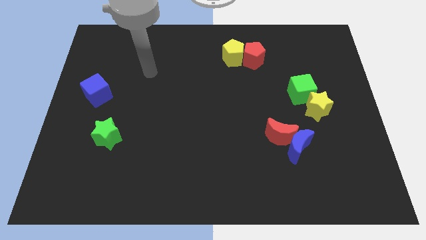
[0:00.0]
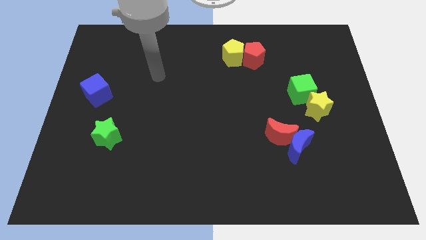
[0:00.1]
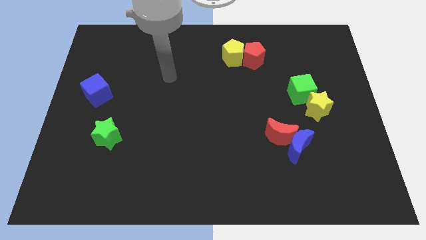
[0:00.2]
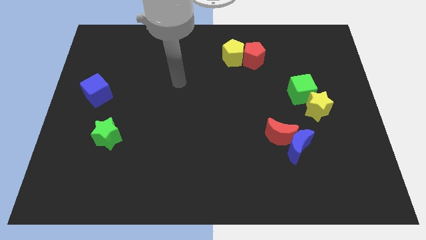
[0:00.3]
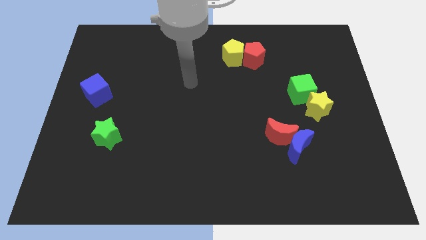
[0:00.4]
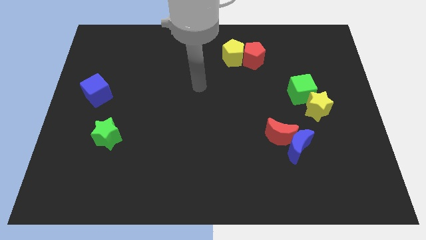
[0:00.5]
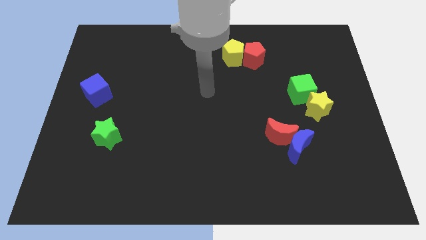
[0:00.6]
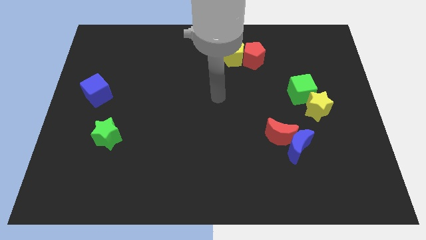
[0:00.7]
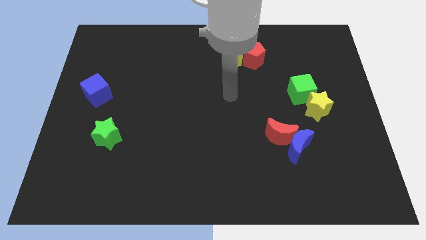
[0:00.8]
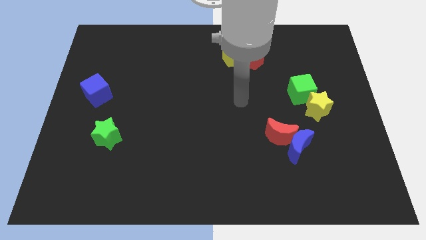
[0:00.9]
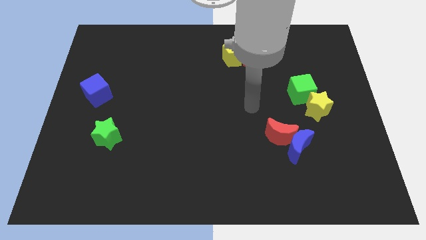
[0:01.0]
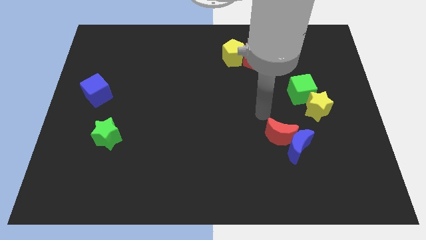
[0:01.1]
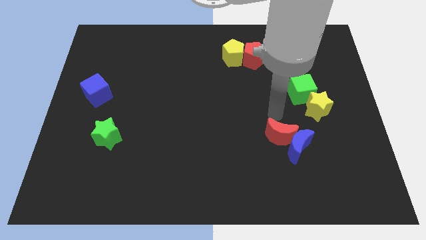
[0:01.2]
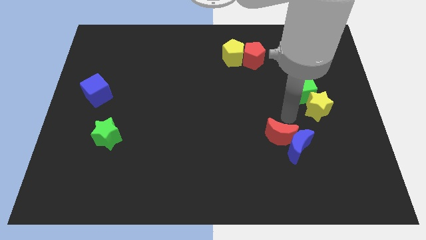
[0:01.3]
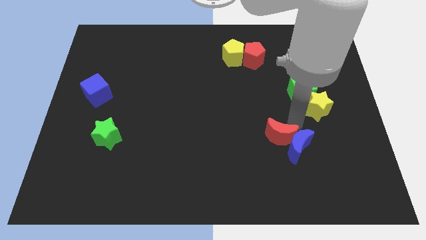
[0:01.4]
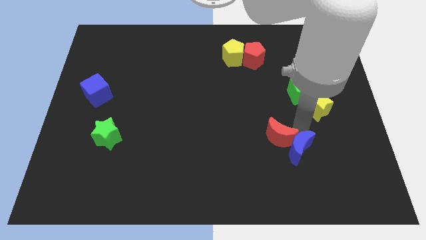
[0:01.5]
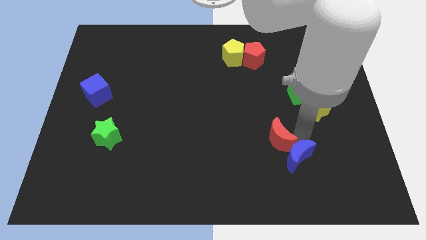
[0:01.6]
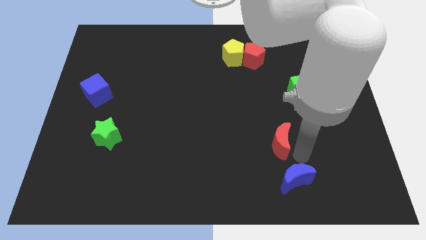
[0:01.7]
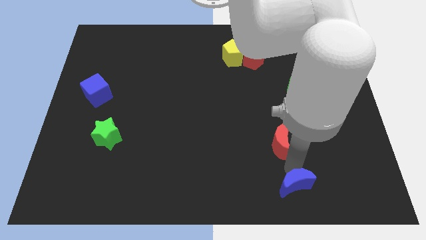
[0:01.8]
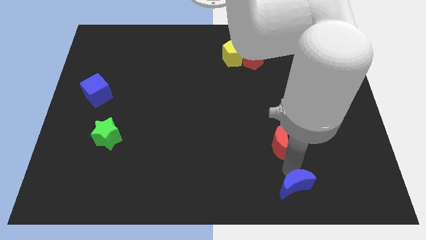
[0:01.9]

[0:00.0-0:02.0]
pull the red moon apart from the blue moon

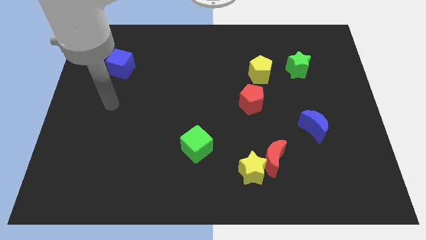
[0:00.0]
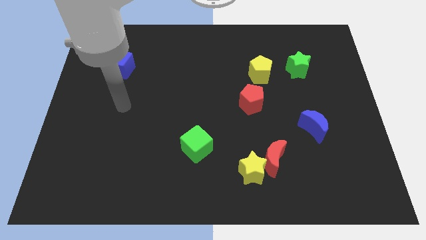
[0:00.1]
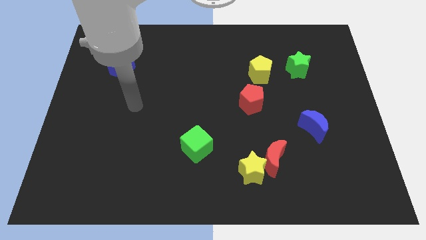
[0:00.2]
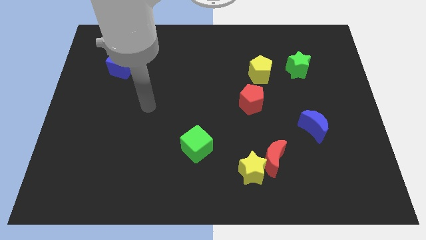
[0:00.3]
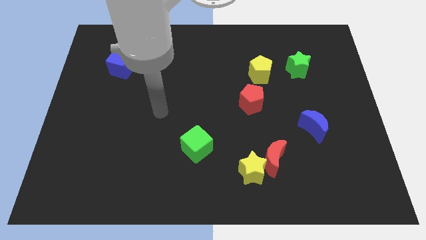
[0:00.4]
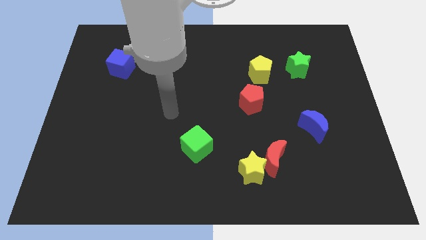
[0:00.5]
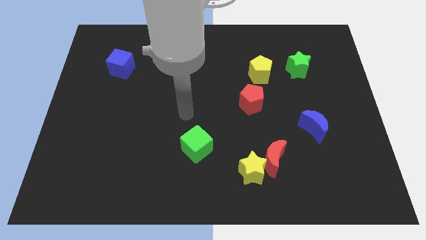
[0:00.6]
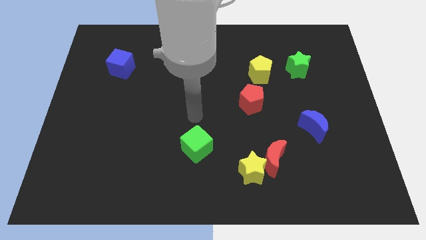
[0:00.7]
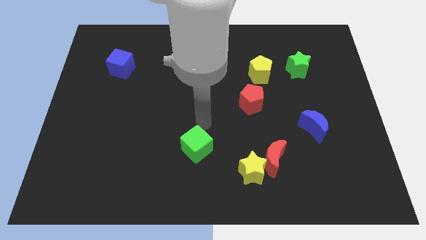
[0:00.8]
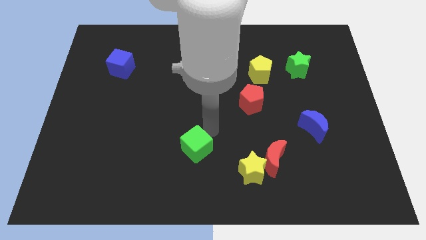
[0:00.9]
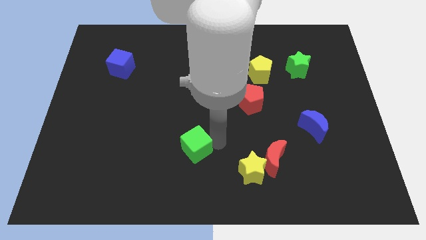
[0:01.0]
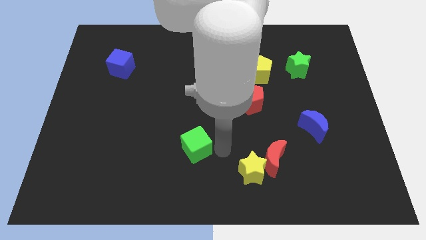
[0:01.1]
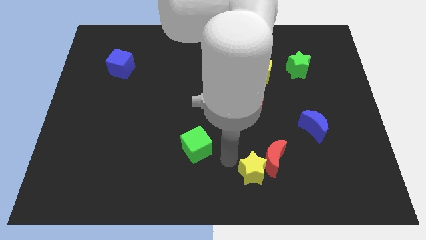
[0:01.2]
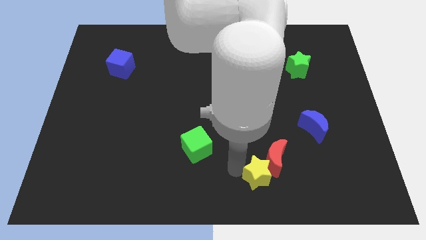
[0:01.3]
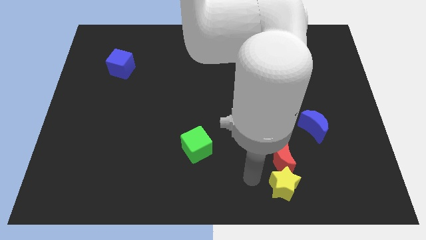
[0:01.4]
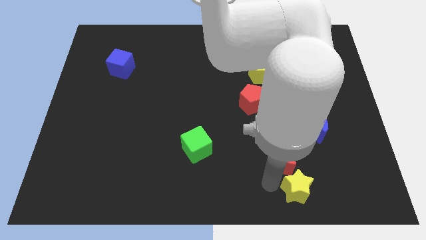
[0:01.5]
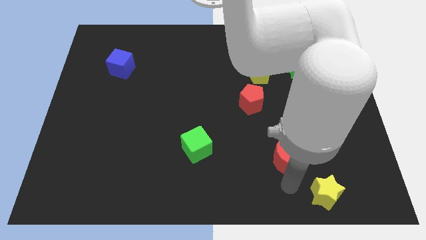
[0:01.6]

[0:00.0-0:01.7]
move the red moon away from the yellow star

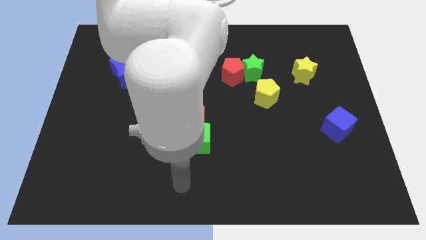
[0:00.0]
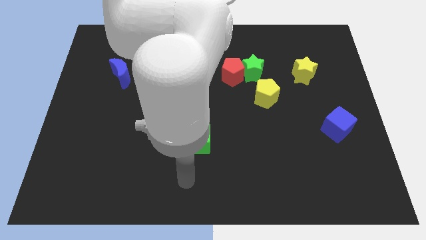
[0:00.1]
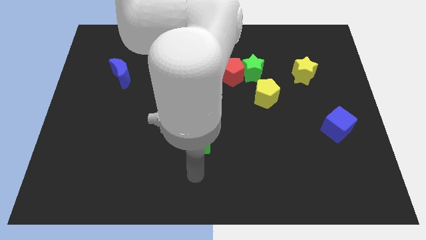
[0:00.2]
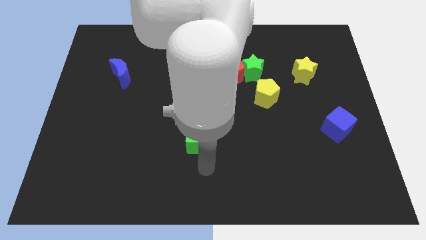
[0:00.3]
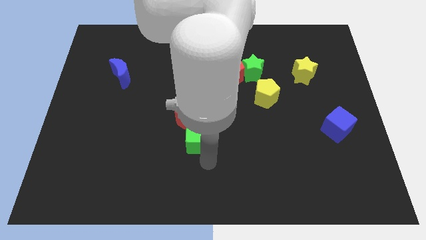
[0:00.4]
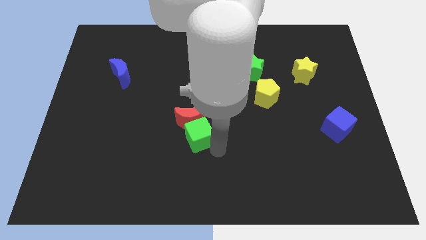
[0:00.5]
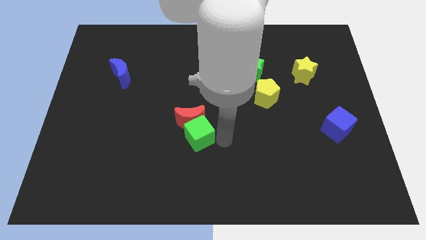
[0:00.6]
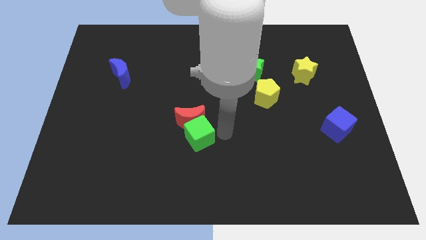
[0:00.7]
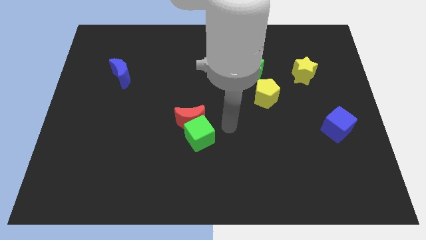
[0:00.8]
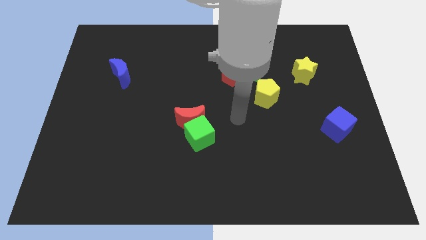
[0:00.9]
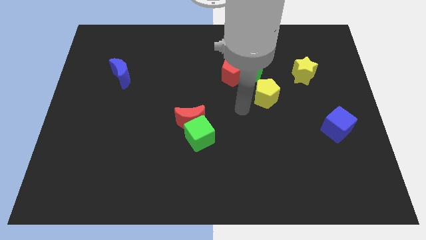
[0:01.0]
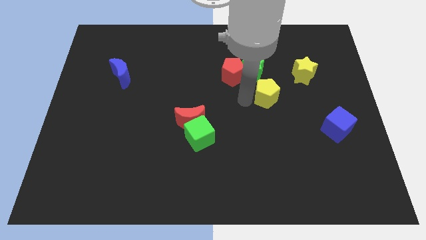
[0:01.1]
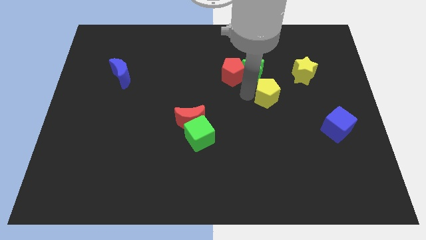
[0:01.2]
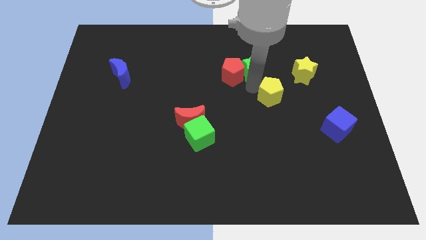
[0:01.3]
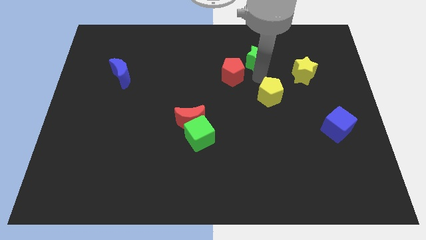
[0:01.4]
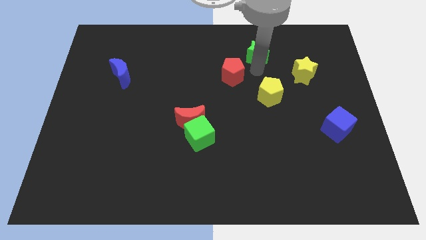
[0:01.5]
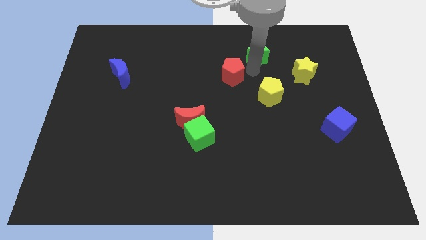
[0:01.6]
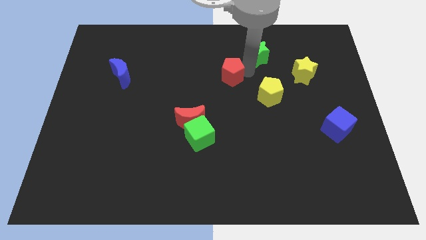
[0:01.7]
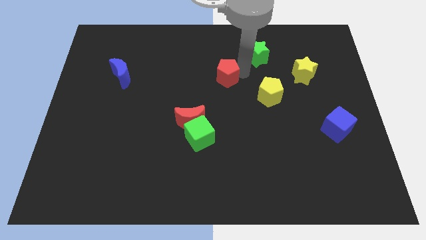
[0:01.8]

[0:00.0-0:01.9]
move the red pentagon away from the green star

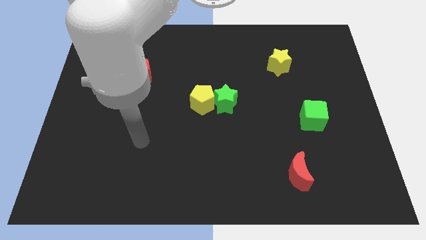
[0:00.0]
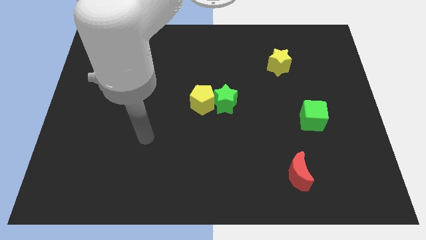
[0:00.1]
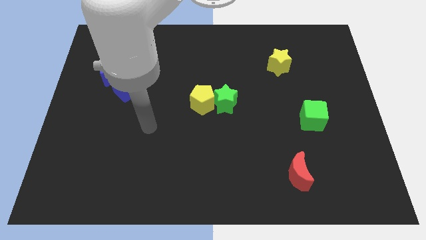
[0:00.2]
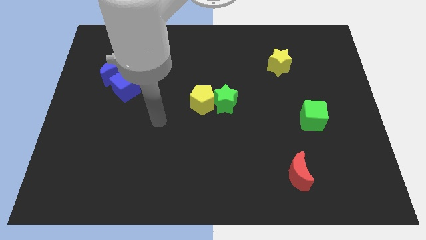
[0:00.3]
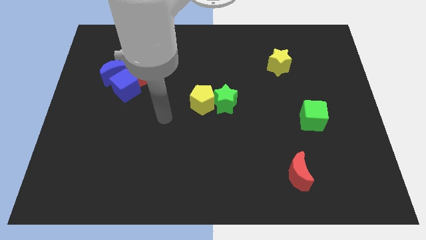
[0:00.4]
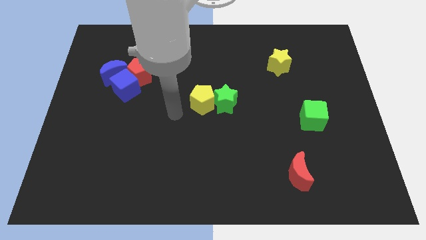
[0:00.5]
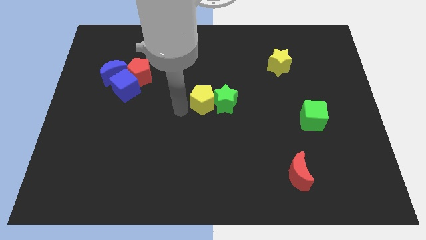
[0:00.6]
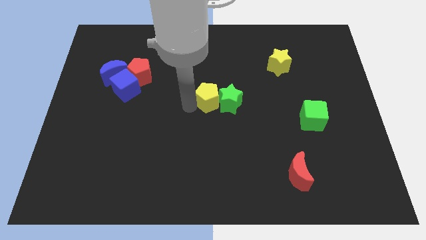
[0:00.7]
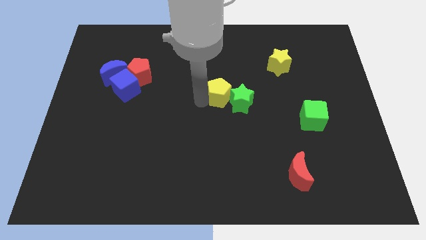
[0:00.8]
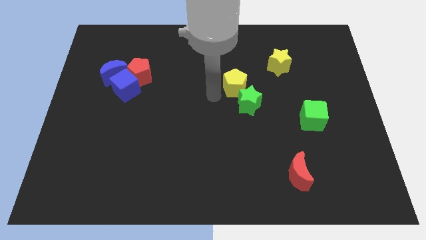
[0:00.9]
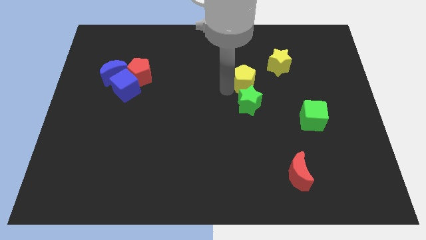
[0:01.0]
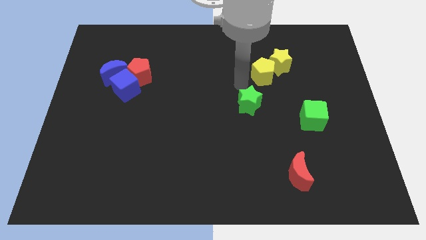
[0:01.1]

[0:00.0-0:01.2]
pull the green star apart from the yellow pentagon

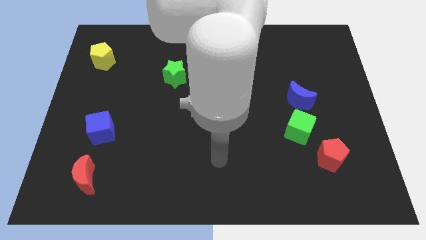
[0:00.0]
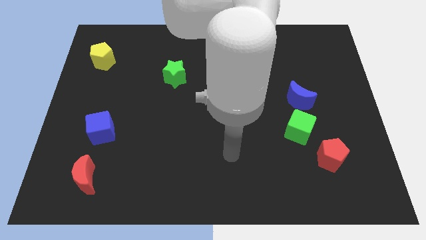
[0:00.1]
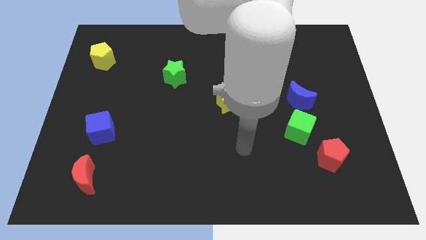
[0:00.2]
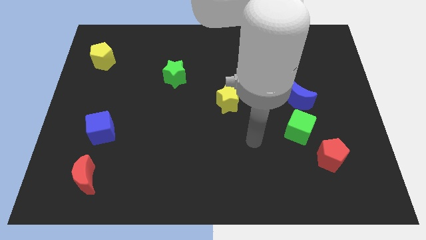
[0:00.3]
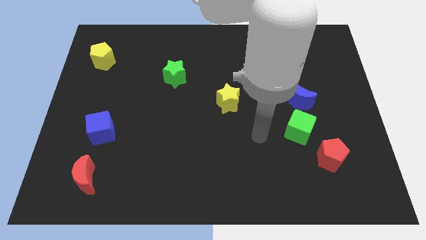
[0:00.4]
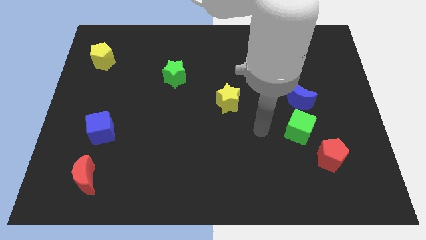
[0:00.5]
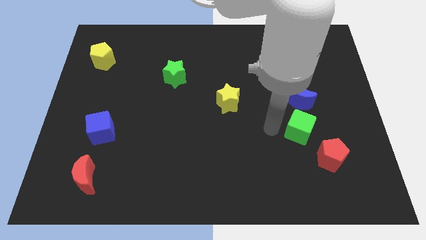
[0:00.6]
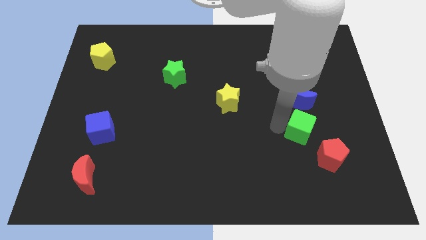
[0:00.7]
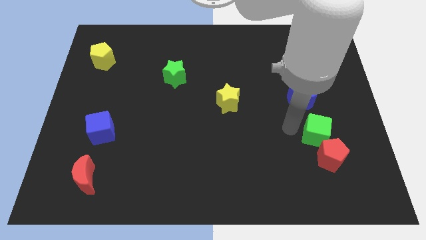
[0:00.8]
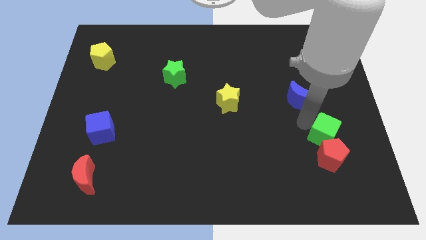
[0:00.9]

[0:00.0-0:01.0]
move the blue moon away from the green cube

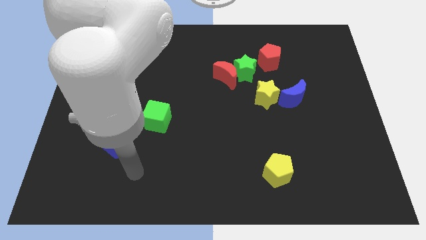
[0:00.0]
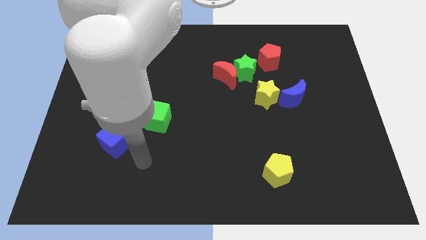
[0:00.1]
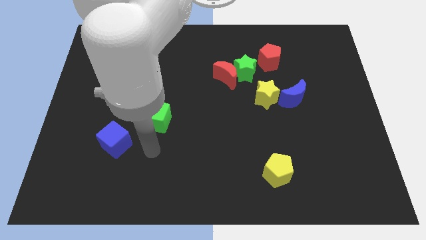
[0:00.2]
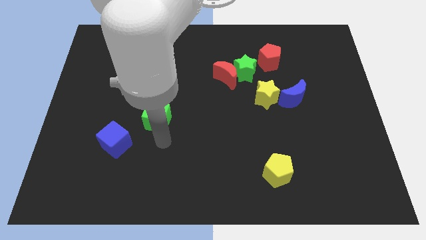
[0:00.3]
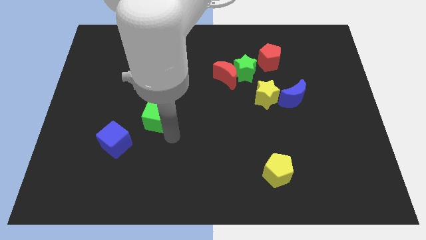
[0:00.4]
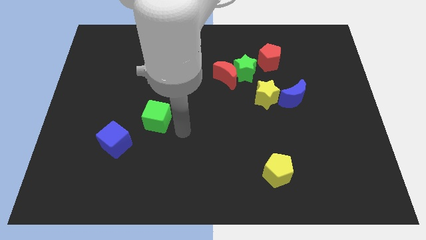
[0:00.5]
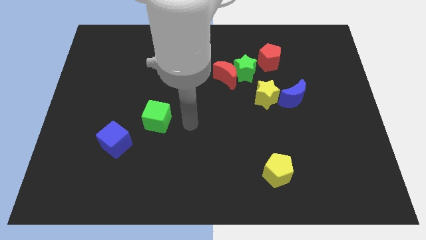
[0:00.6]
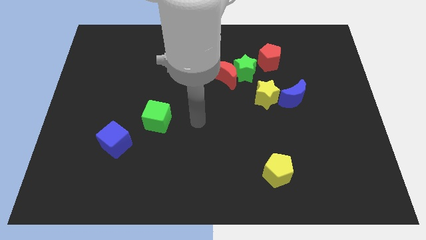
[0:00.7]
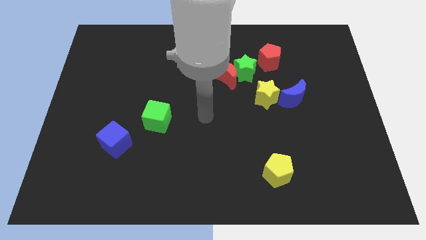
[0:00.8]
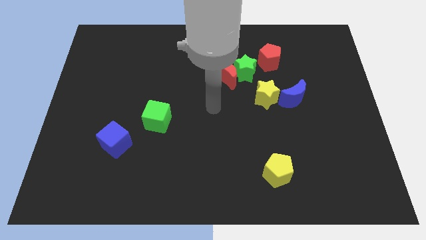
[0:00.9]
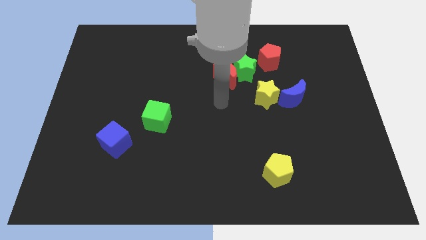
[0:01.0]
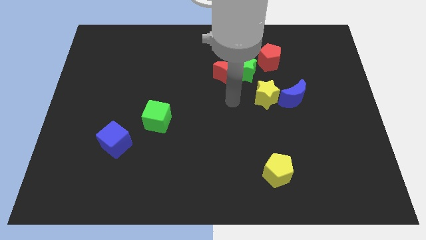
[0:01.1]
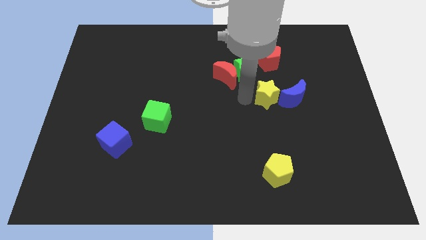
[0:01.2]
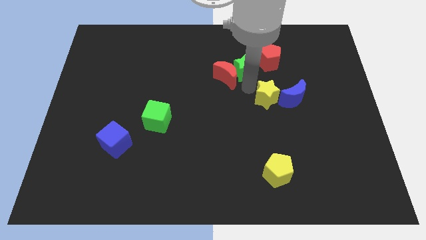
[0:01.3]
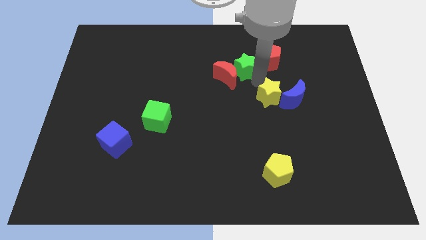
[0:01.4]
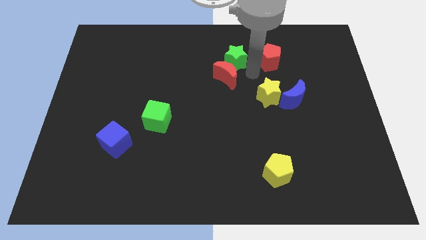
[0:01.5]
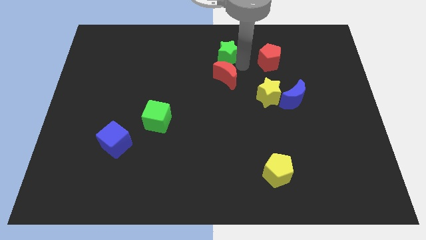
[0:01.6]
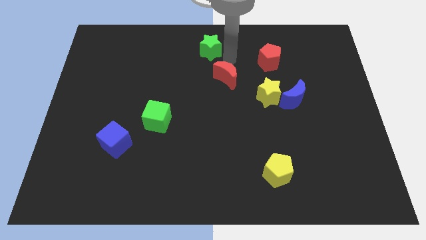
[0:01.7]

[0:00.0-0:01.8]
separate the red moon from the green star
